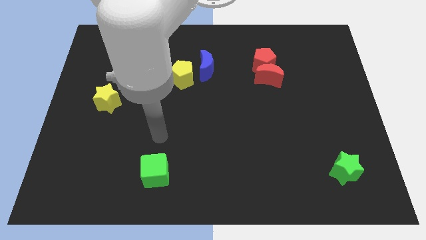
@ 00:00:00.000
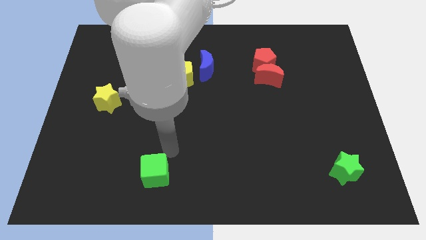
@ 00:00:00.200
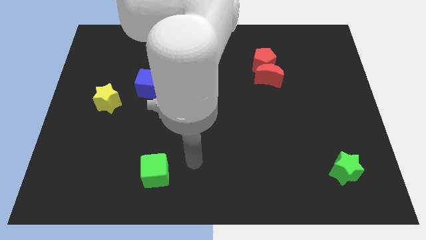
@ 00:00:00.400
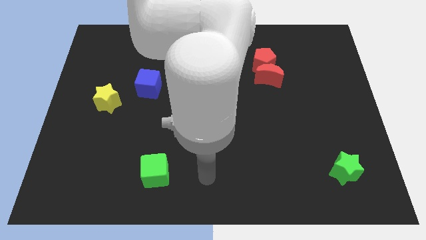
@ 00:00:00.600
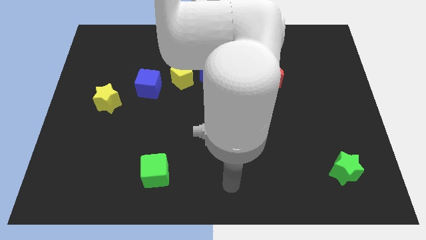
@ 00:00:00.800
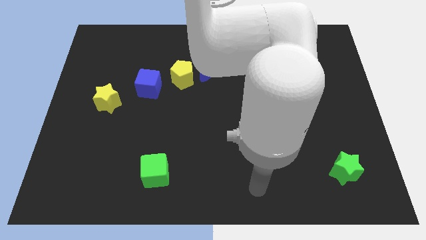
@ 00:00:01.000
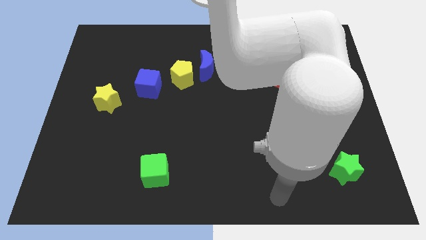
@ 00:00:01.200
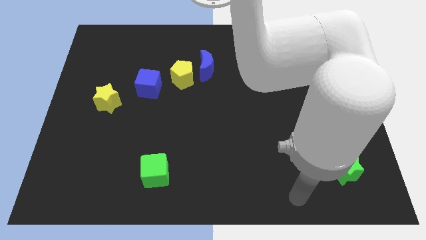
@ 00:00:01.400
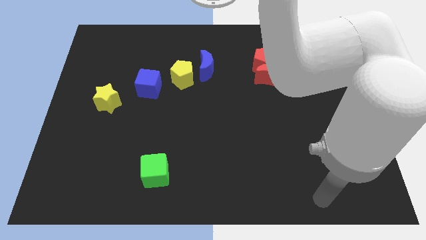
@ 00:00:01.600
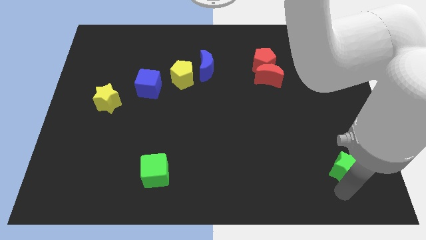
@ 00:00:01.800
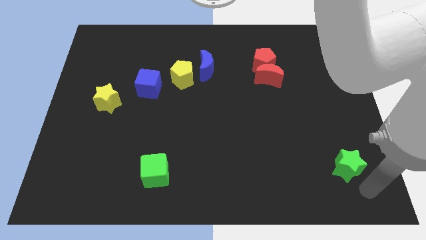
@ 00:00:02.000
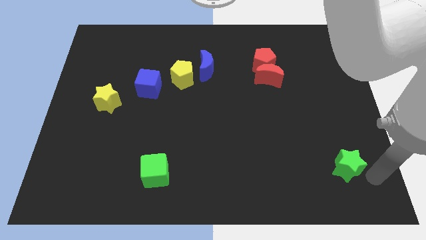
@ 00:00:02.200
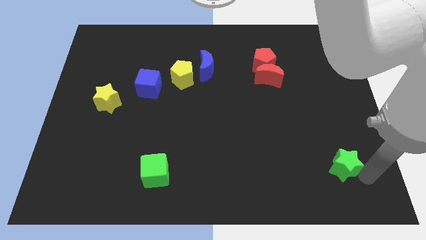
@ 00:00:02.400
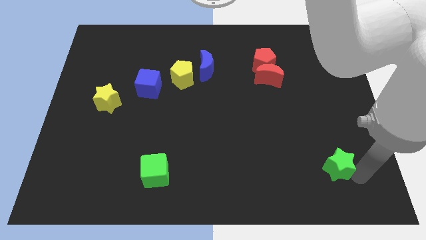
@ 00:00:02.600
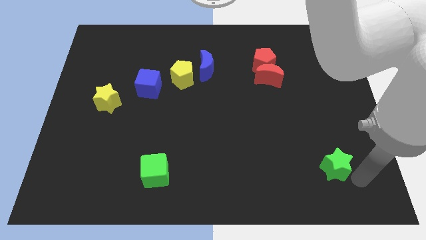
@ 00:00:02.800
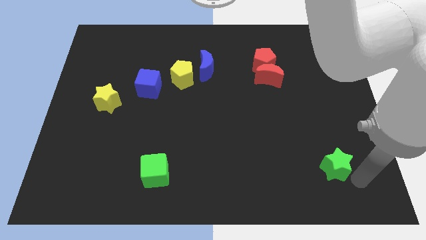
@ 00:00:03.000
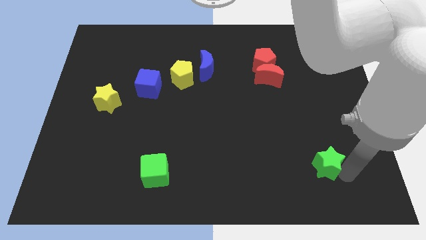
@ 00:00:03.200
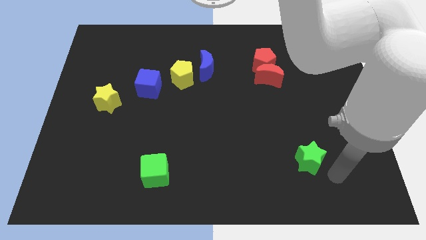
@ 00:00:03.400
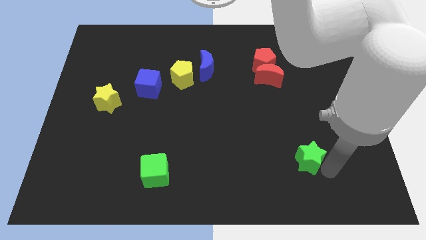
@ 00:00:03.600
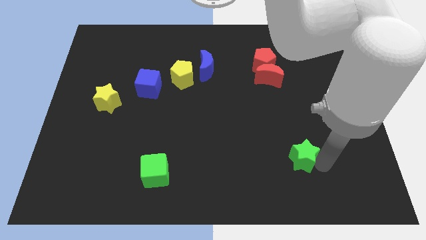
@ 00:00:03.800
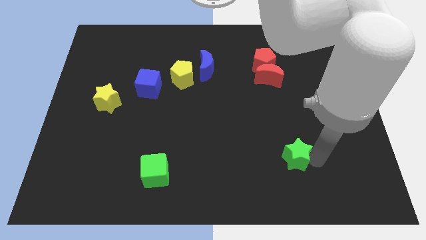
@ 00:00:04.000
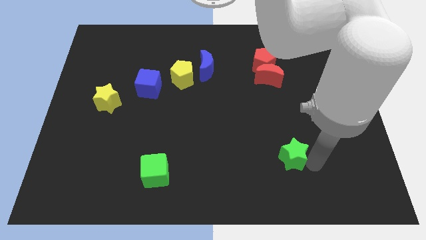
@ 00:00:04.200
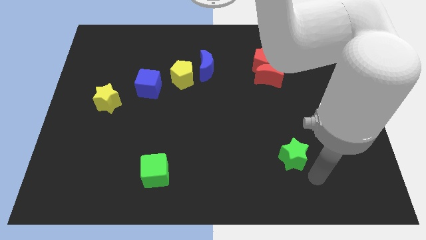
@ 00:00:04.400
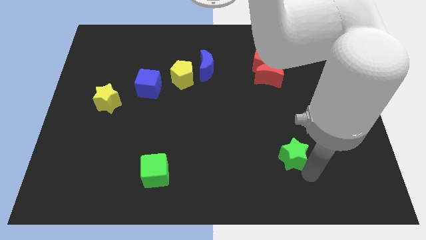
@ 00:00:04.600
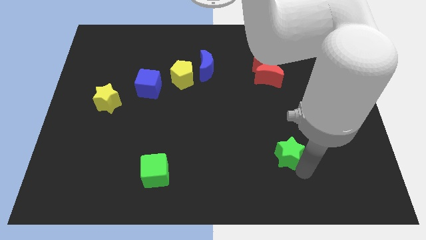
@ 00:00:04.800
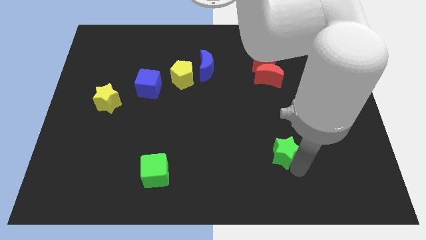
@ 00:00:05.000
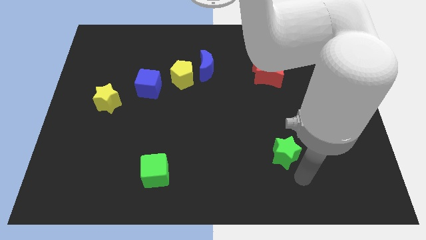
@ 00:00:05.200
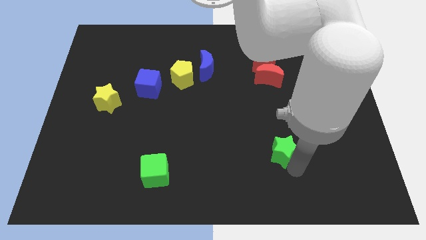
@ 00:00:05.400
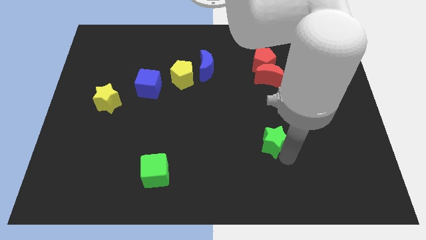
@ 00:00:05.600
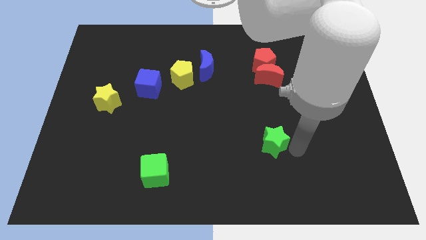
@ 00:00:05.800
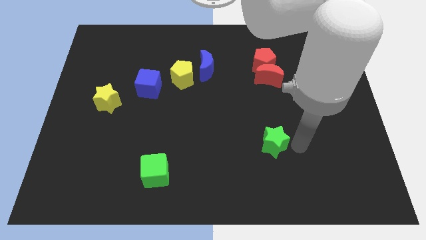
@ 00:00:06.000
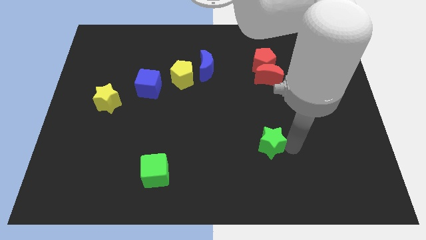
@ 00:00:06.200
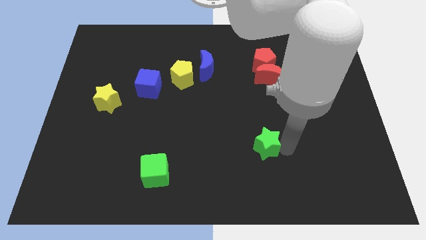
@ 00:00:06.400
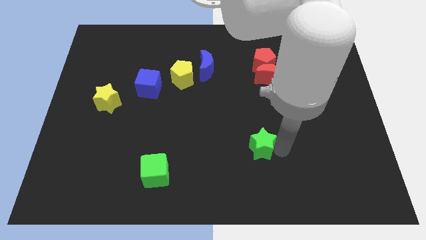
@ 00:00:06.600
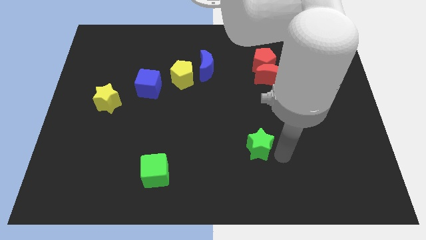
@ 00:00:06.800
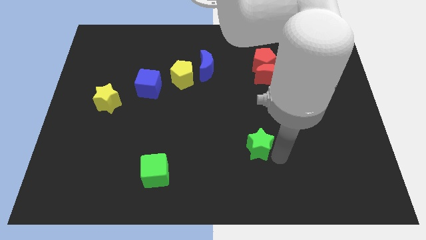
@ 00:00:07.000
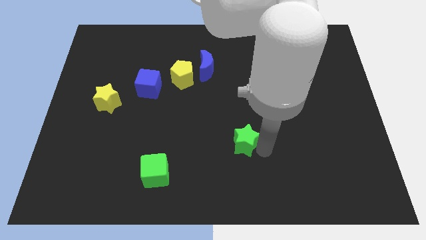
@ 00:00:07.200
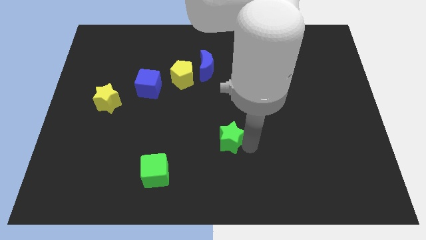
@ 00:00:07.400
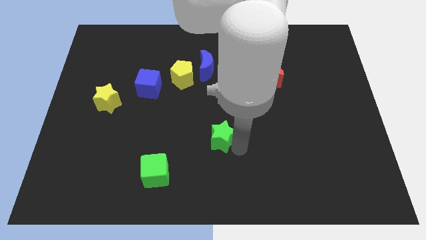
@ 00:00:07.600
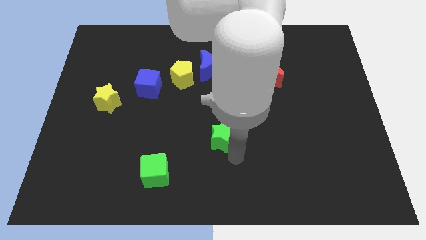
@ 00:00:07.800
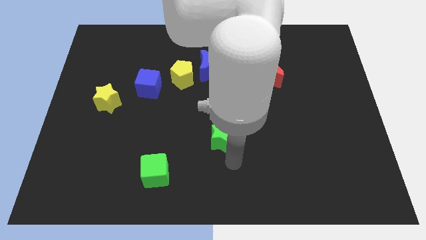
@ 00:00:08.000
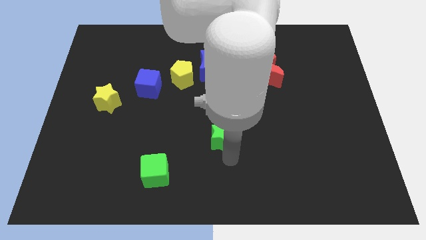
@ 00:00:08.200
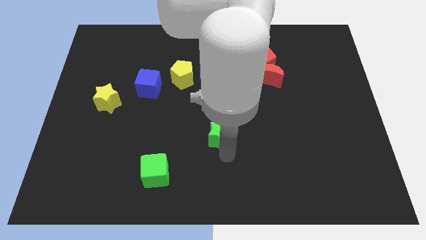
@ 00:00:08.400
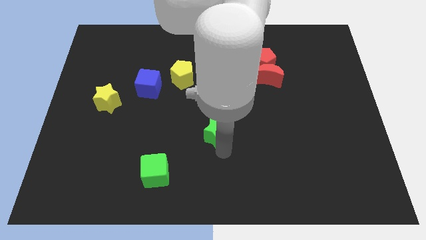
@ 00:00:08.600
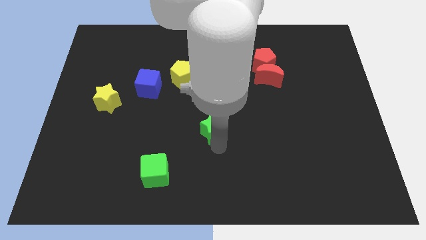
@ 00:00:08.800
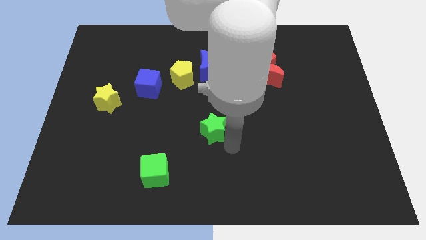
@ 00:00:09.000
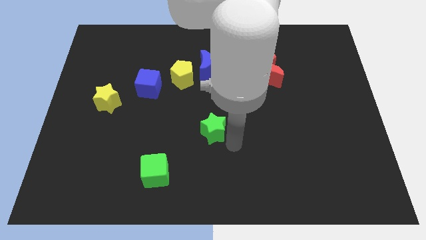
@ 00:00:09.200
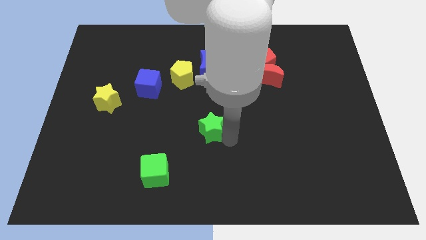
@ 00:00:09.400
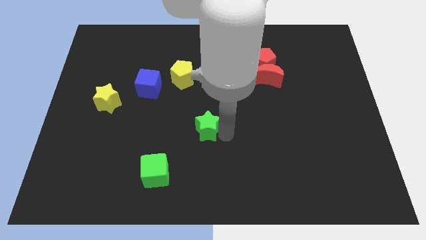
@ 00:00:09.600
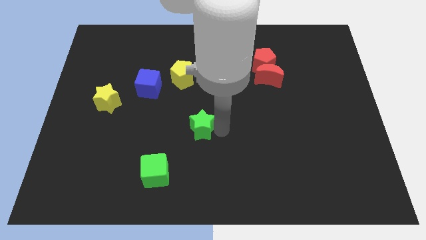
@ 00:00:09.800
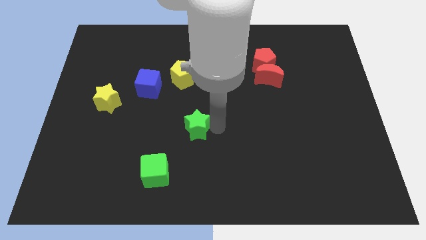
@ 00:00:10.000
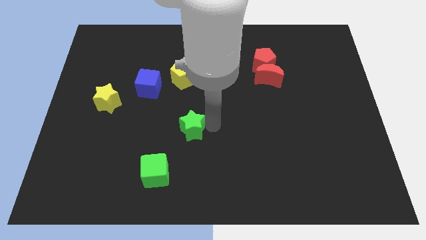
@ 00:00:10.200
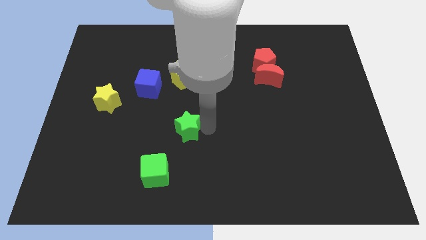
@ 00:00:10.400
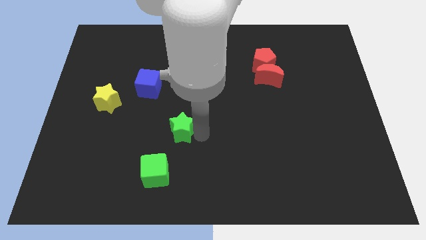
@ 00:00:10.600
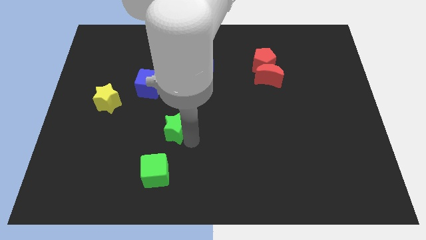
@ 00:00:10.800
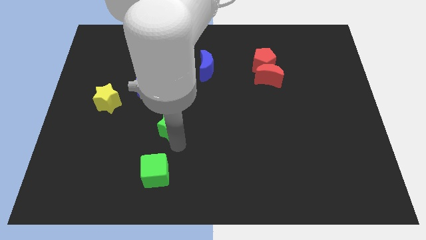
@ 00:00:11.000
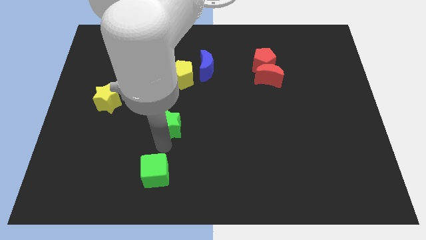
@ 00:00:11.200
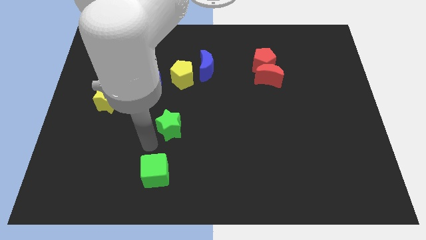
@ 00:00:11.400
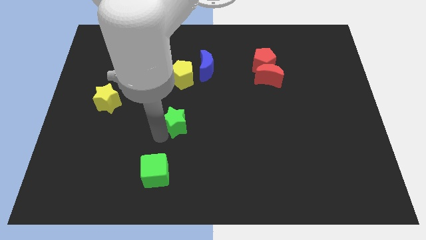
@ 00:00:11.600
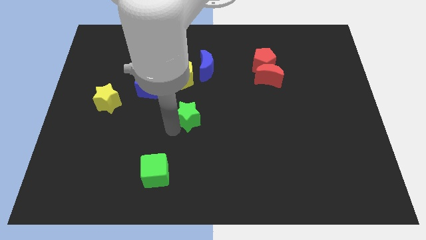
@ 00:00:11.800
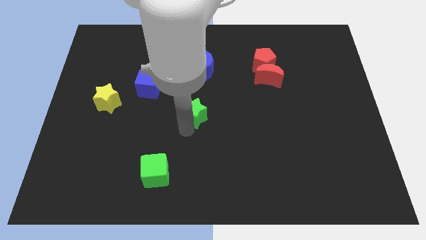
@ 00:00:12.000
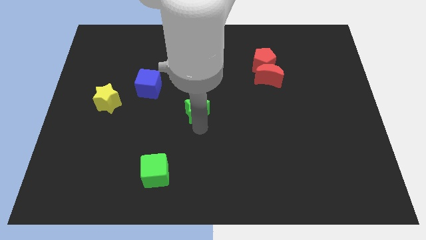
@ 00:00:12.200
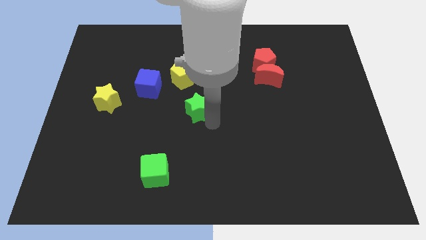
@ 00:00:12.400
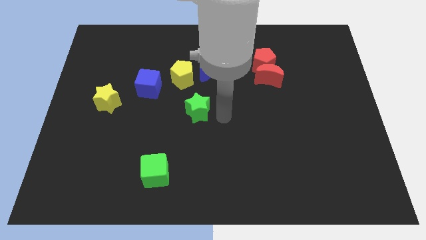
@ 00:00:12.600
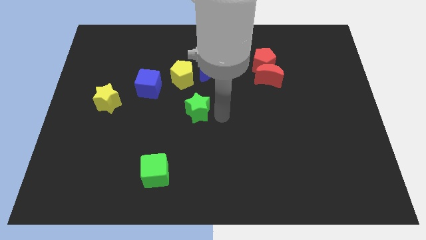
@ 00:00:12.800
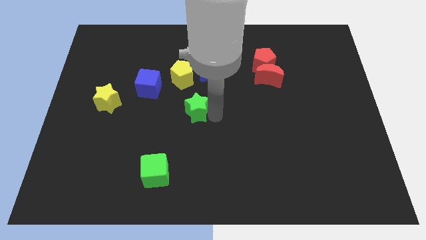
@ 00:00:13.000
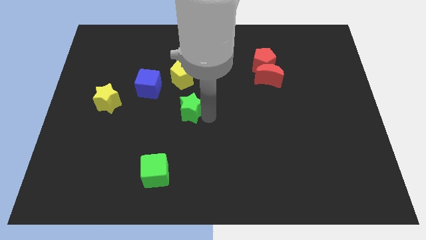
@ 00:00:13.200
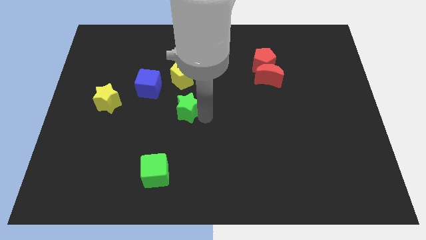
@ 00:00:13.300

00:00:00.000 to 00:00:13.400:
slide the green star to the bottom right of the blue cube

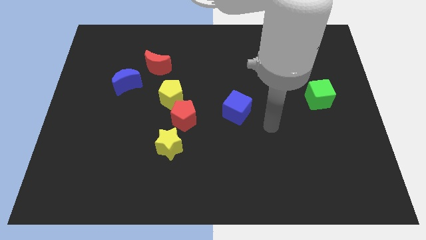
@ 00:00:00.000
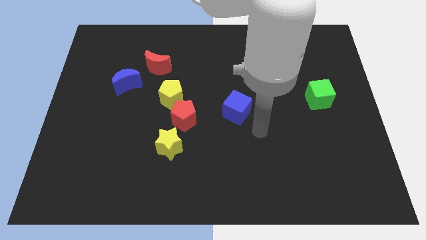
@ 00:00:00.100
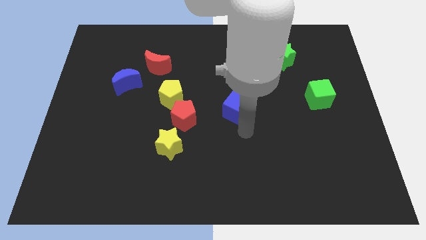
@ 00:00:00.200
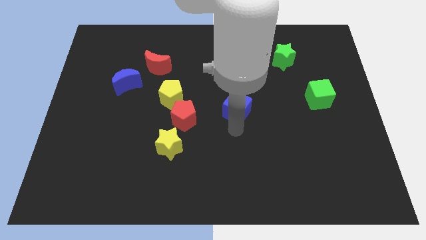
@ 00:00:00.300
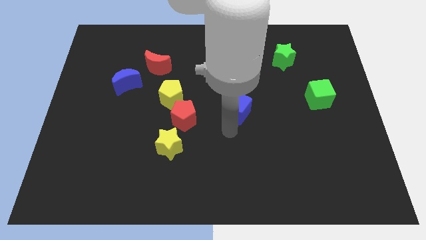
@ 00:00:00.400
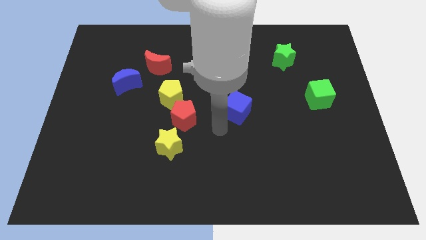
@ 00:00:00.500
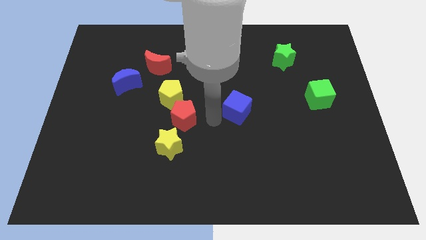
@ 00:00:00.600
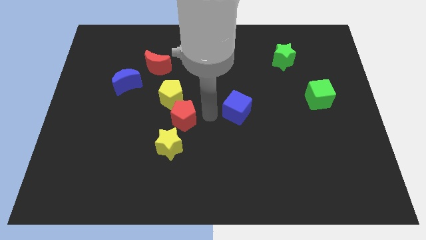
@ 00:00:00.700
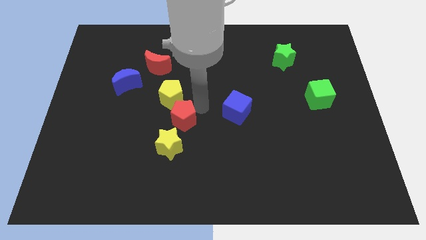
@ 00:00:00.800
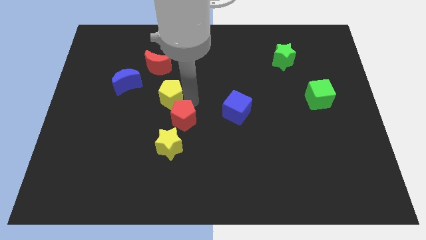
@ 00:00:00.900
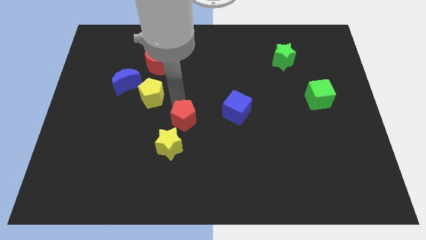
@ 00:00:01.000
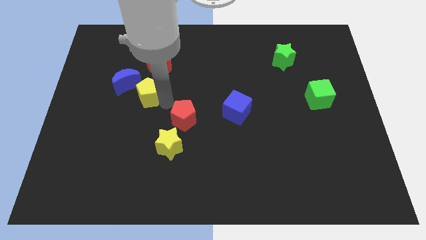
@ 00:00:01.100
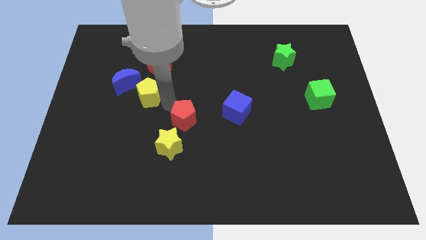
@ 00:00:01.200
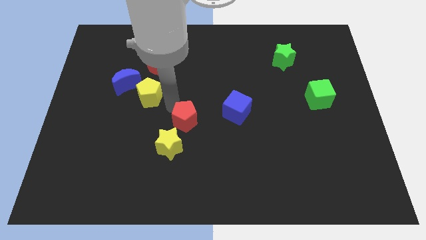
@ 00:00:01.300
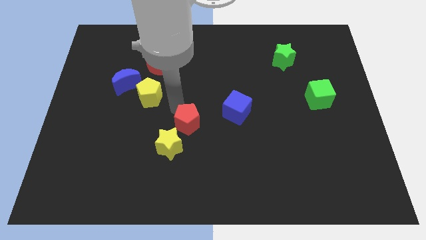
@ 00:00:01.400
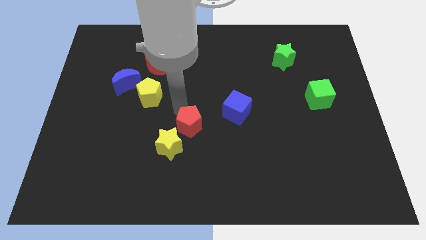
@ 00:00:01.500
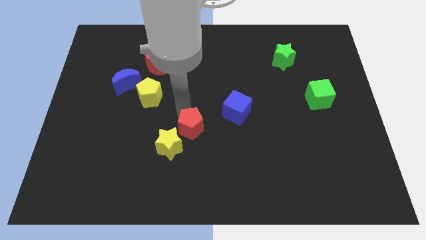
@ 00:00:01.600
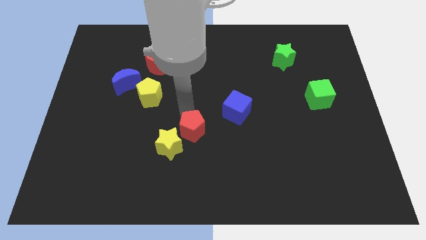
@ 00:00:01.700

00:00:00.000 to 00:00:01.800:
move the red pentagon to the right of the yellow star
